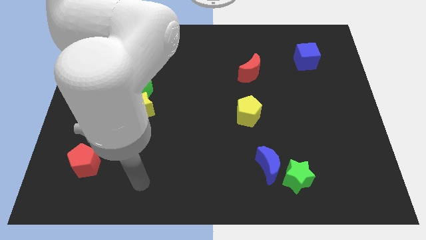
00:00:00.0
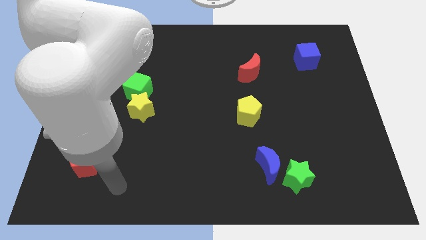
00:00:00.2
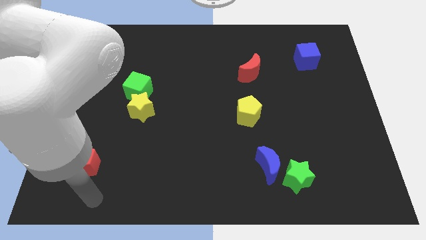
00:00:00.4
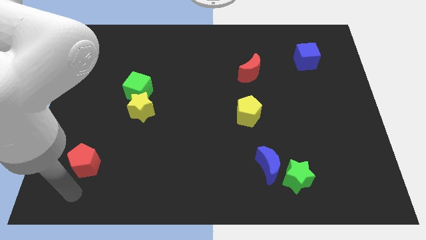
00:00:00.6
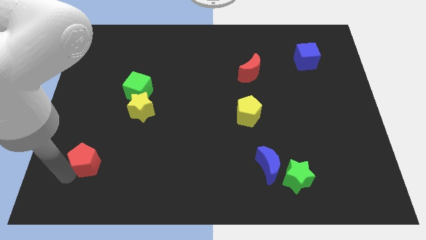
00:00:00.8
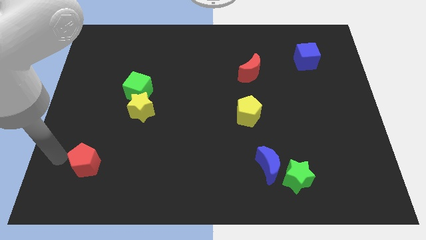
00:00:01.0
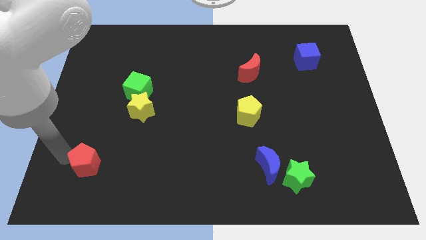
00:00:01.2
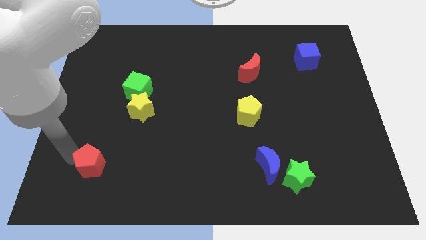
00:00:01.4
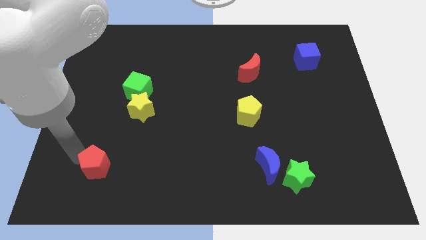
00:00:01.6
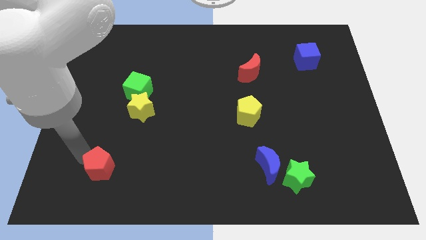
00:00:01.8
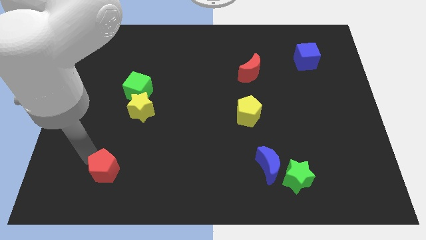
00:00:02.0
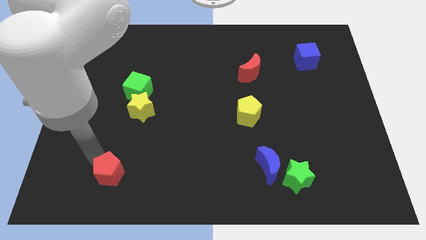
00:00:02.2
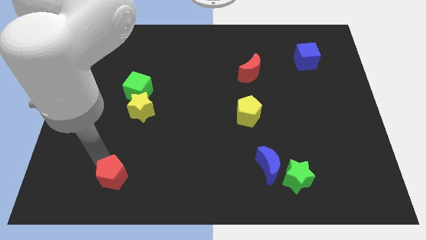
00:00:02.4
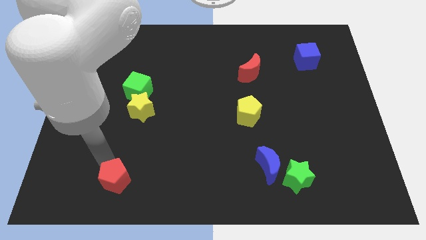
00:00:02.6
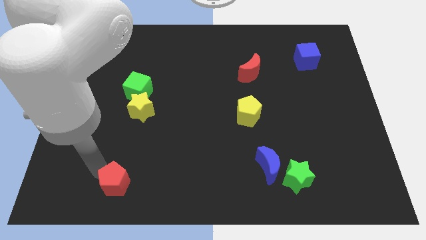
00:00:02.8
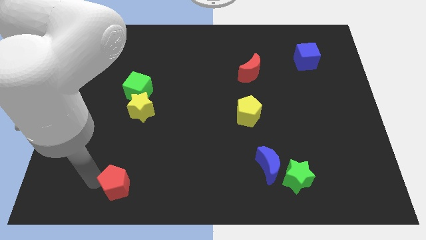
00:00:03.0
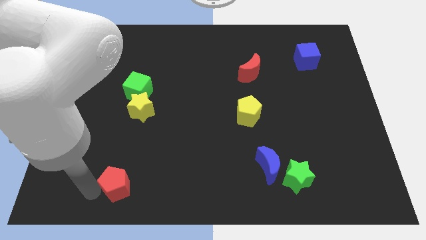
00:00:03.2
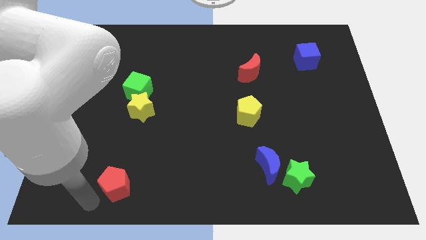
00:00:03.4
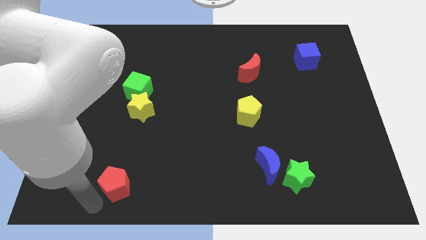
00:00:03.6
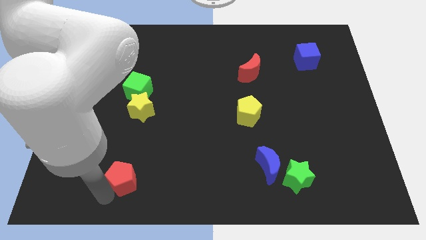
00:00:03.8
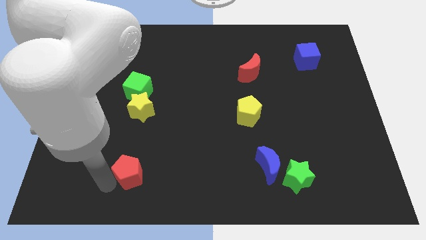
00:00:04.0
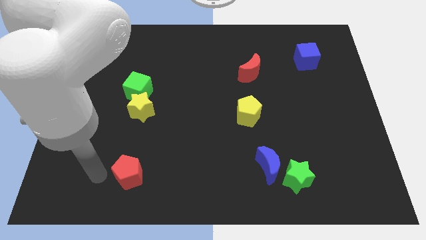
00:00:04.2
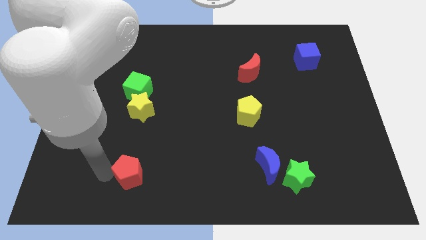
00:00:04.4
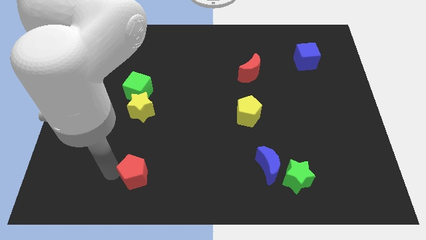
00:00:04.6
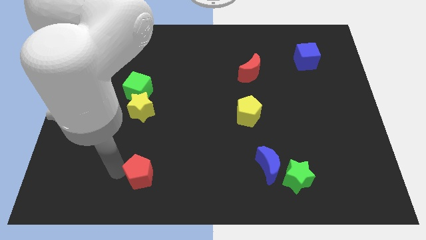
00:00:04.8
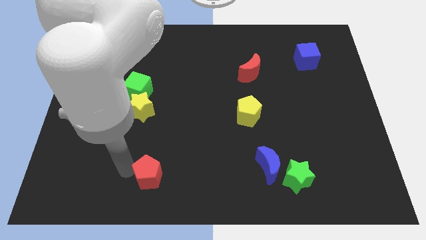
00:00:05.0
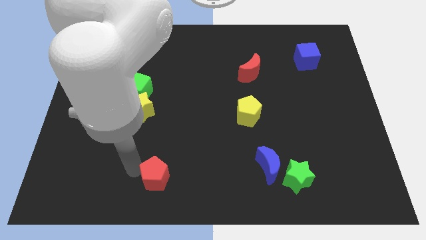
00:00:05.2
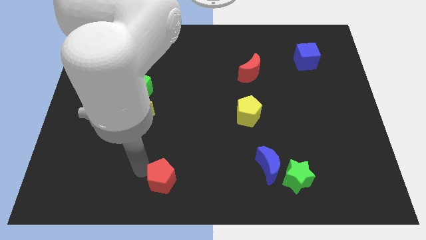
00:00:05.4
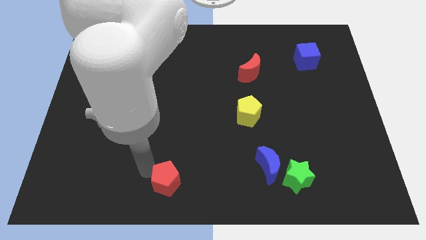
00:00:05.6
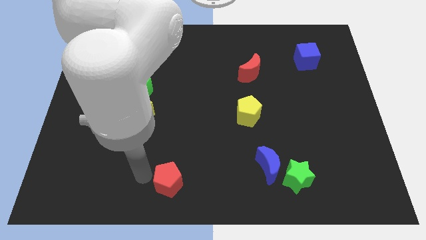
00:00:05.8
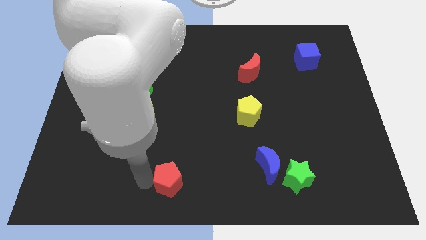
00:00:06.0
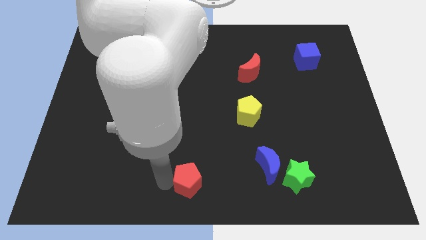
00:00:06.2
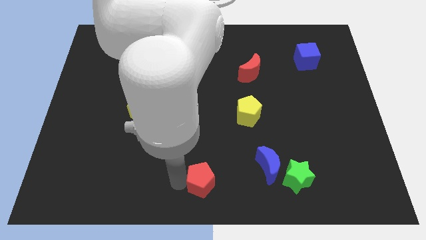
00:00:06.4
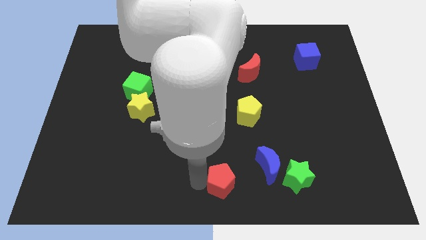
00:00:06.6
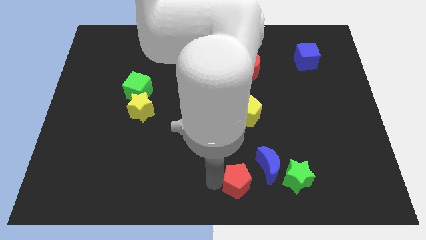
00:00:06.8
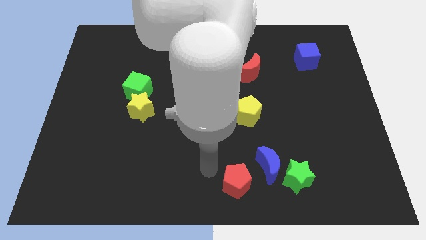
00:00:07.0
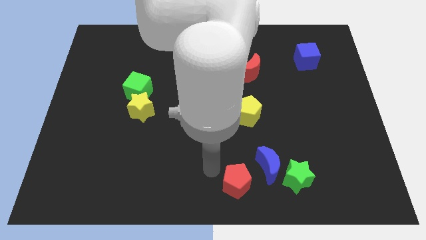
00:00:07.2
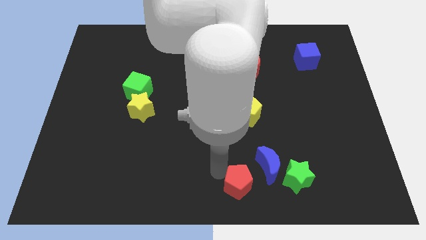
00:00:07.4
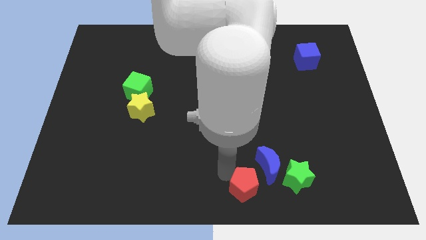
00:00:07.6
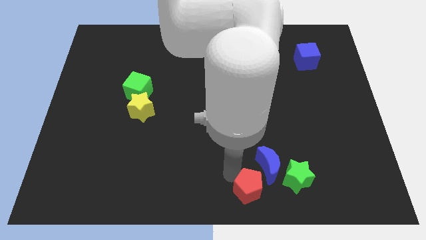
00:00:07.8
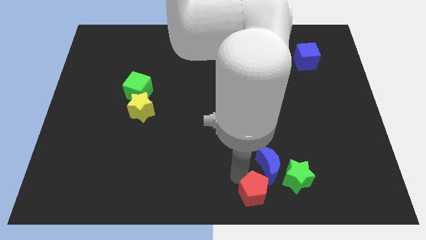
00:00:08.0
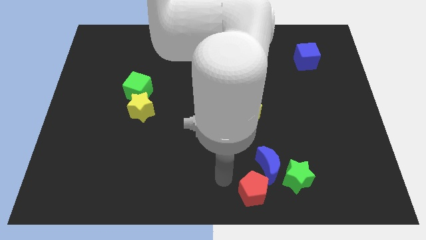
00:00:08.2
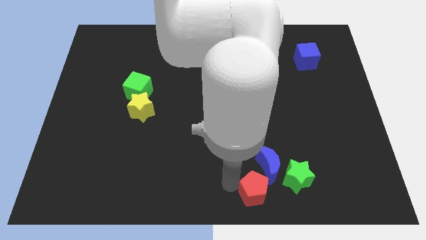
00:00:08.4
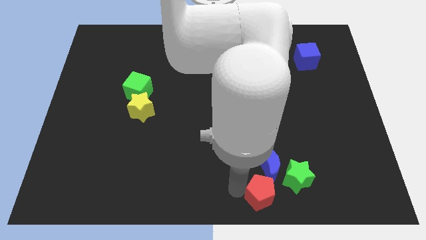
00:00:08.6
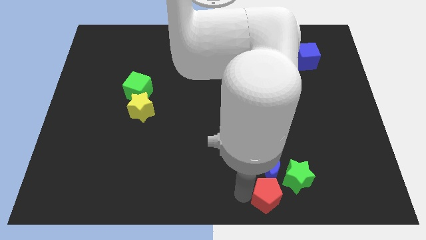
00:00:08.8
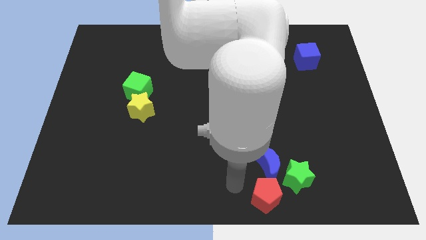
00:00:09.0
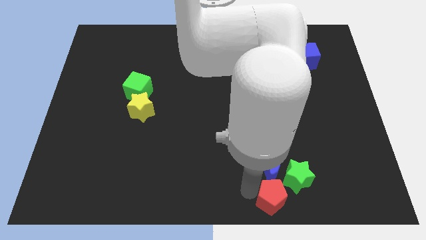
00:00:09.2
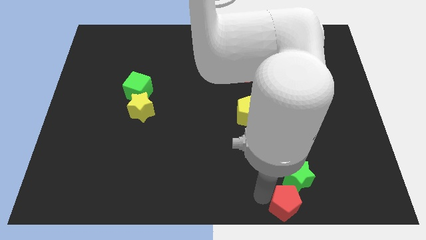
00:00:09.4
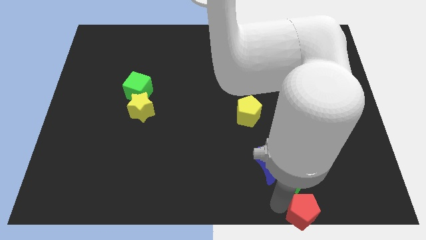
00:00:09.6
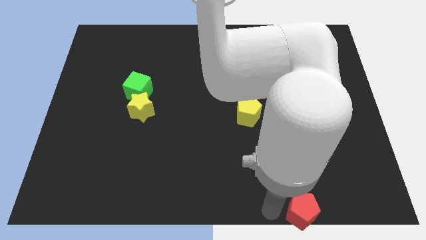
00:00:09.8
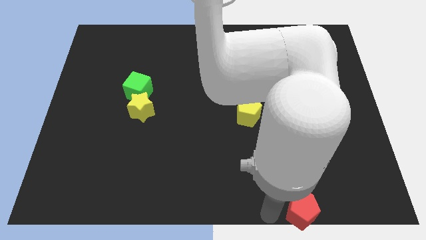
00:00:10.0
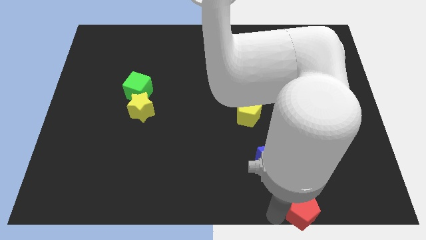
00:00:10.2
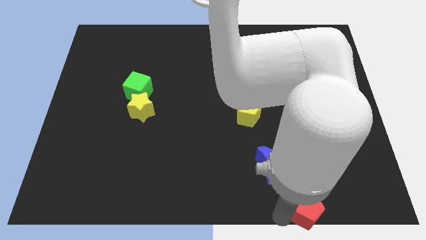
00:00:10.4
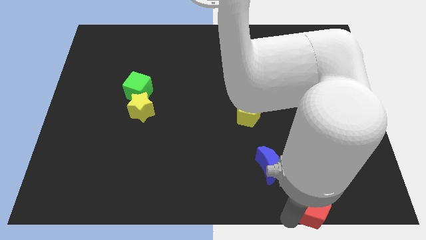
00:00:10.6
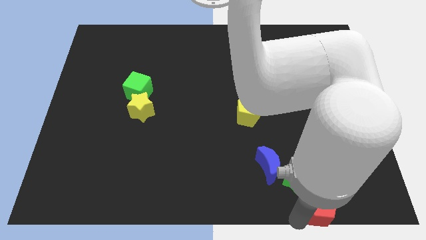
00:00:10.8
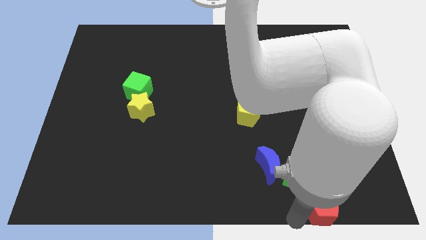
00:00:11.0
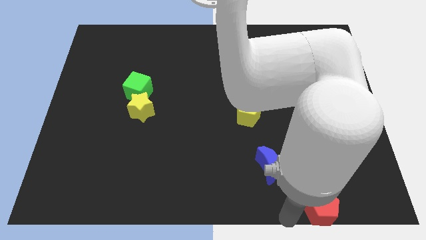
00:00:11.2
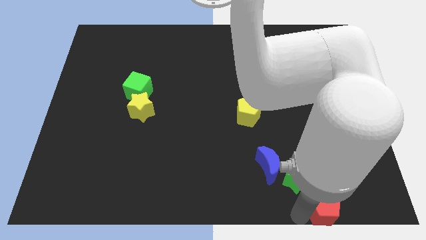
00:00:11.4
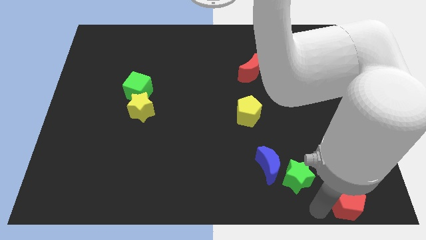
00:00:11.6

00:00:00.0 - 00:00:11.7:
put the red pentagon to the bottom right of the board
